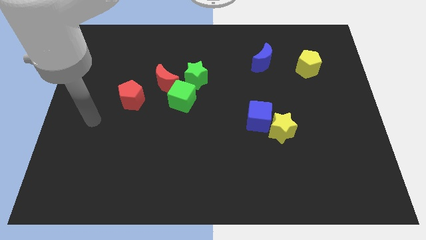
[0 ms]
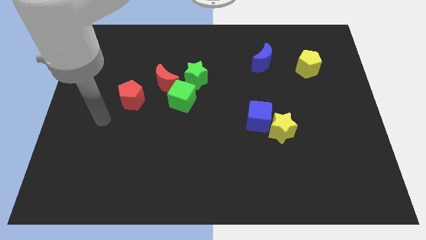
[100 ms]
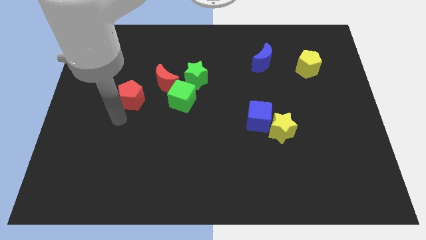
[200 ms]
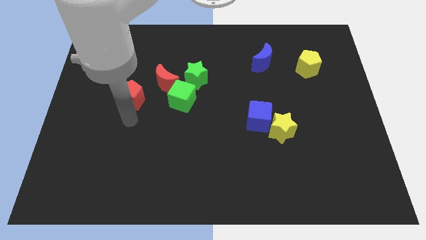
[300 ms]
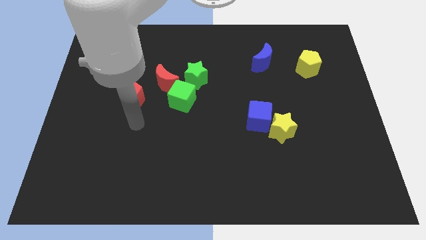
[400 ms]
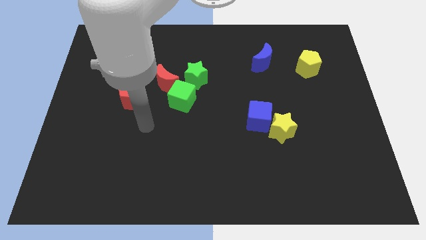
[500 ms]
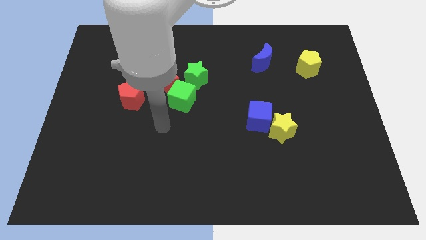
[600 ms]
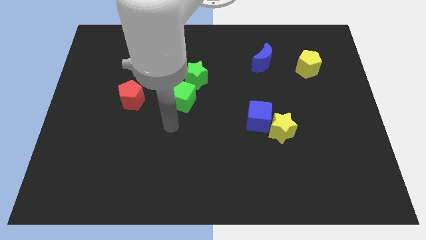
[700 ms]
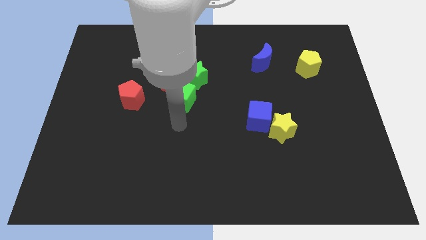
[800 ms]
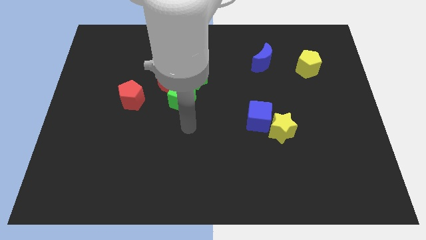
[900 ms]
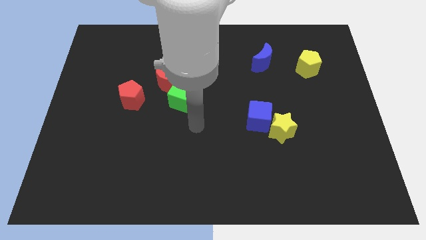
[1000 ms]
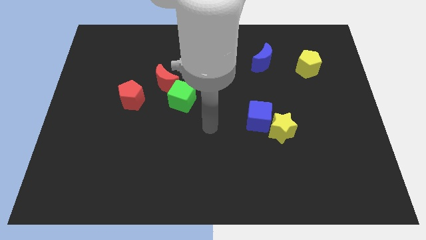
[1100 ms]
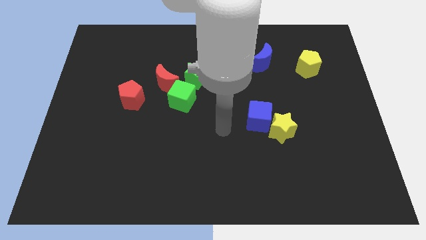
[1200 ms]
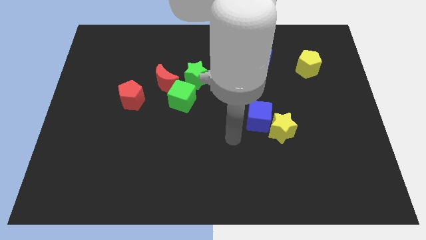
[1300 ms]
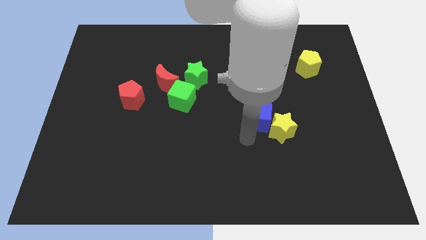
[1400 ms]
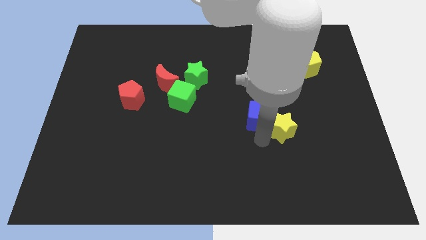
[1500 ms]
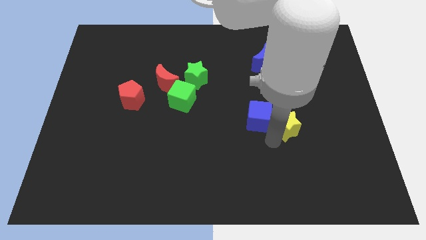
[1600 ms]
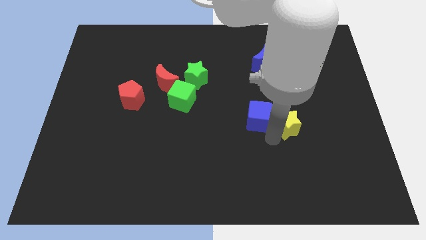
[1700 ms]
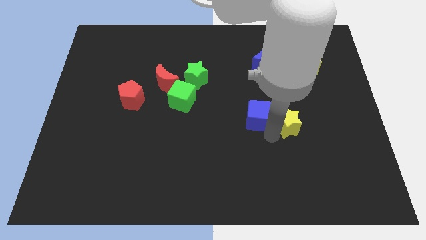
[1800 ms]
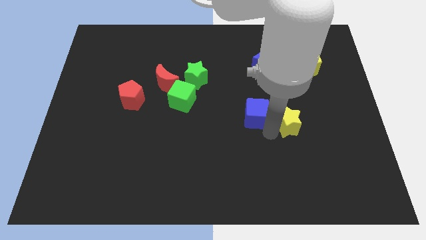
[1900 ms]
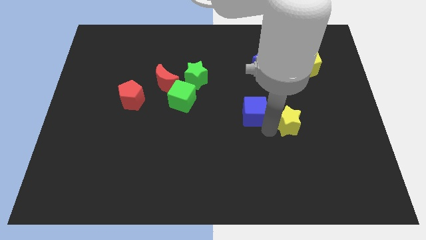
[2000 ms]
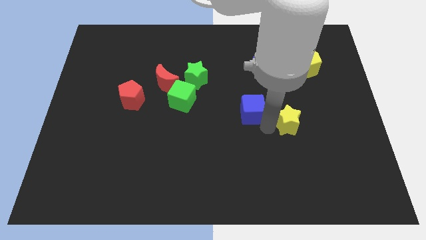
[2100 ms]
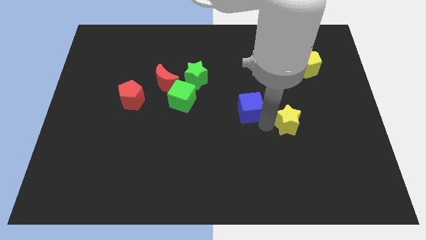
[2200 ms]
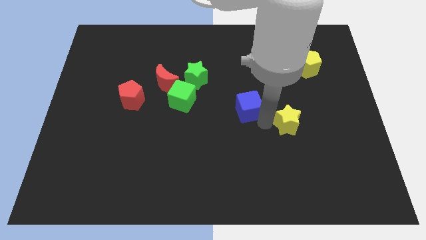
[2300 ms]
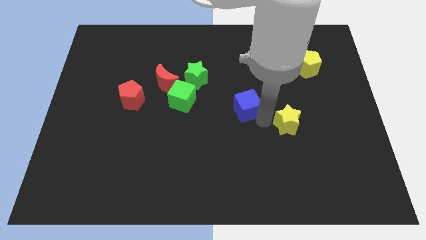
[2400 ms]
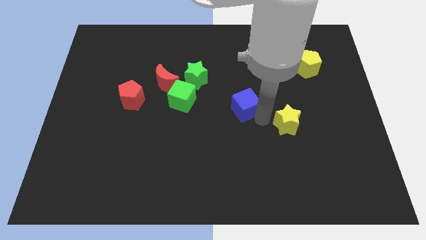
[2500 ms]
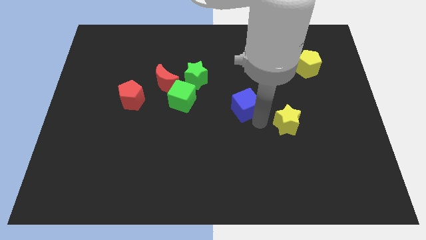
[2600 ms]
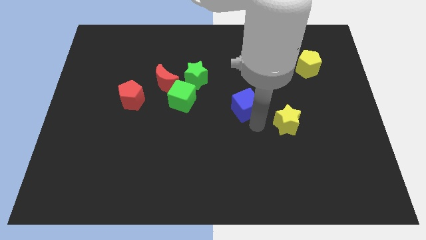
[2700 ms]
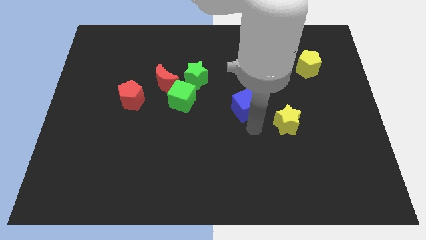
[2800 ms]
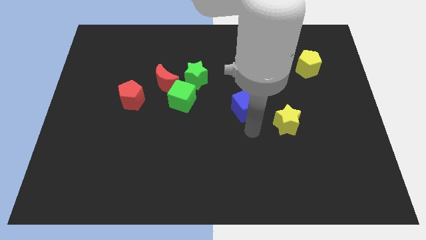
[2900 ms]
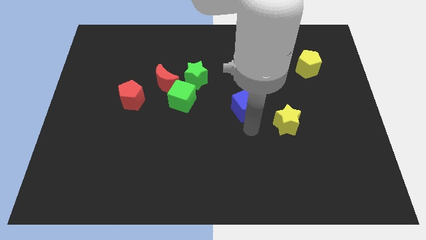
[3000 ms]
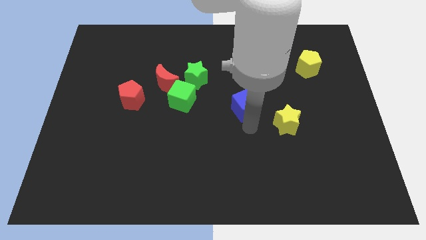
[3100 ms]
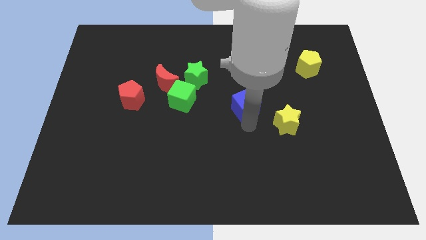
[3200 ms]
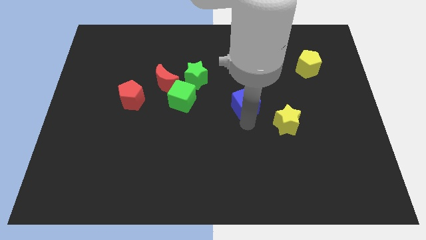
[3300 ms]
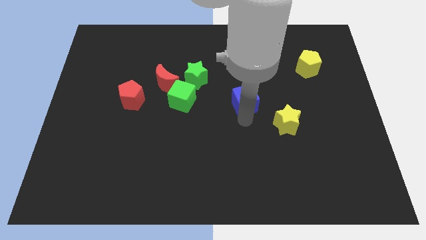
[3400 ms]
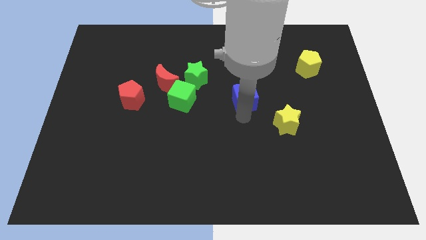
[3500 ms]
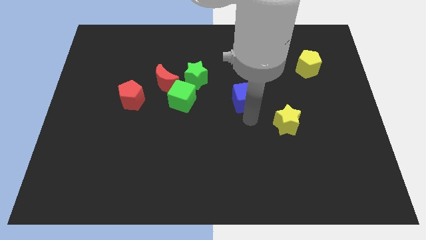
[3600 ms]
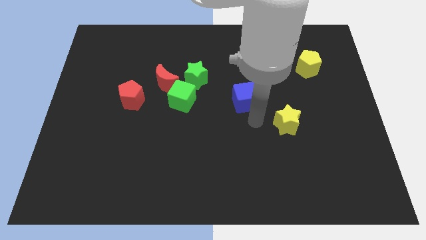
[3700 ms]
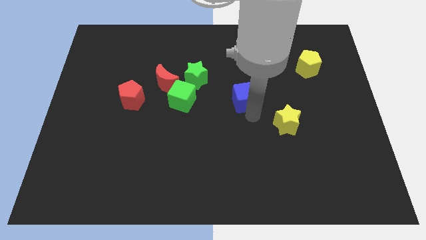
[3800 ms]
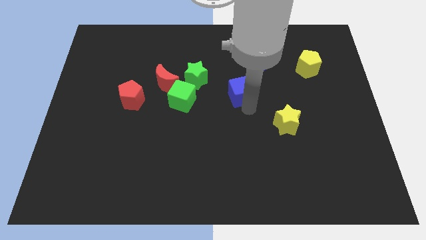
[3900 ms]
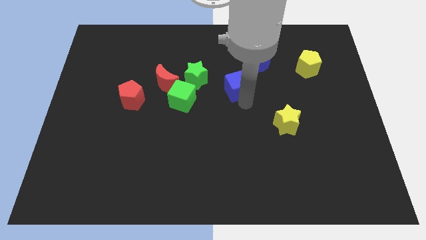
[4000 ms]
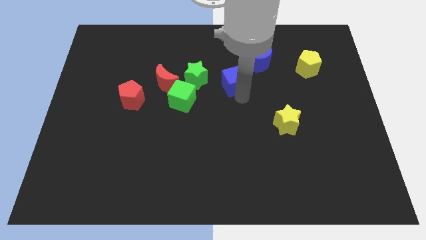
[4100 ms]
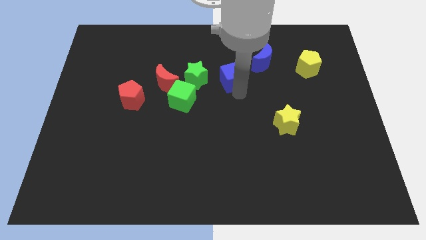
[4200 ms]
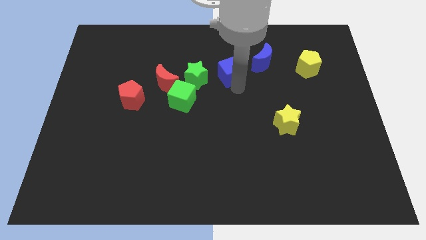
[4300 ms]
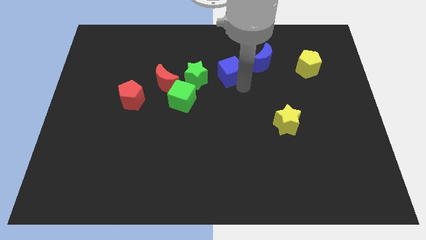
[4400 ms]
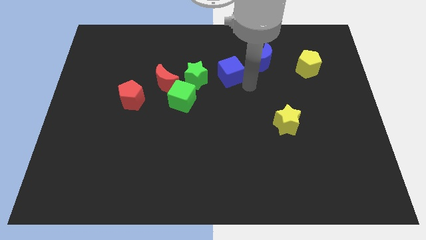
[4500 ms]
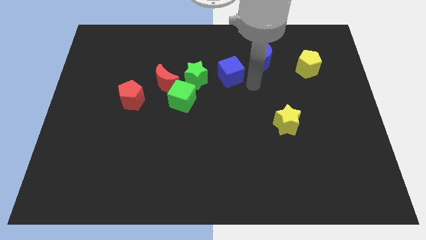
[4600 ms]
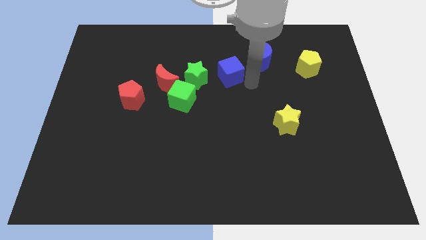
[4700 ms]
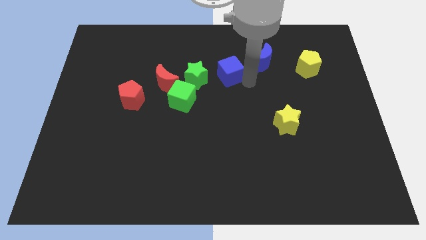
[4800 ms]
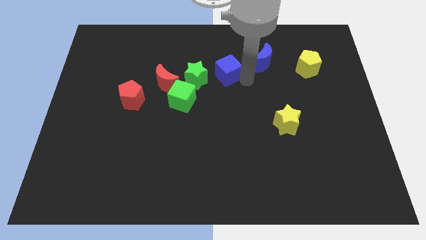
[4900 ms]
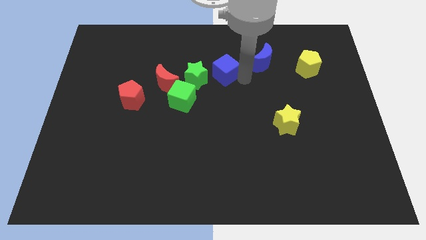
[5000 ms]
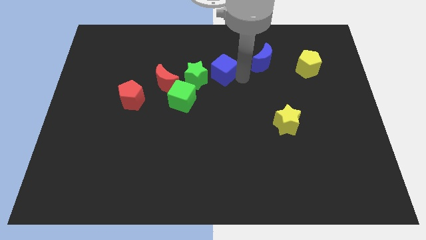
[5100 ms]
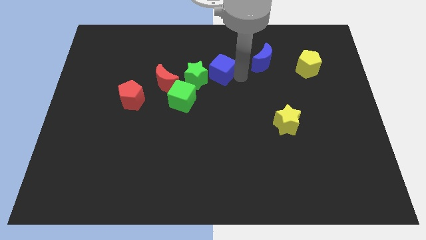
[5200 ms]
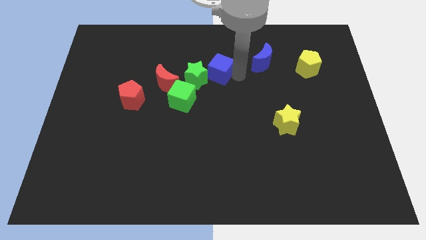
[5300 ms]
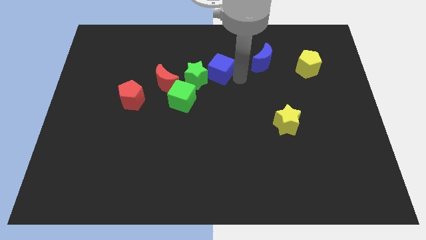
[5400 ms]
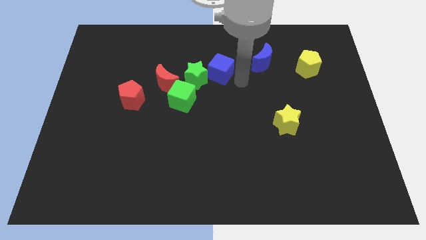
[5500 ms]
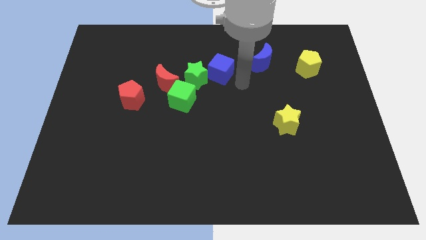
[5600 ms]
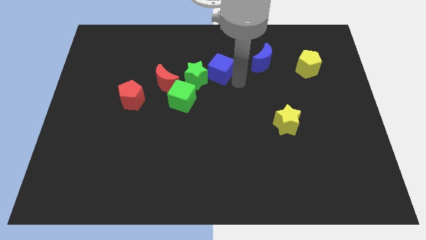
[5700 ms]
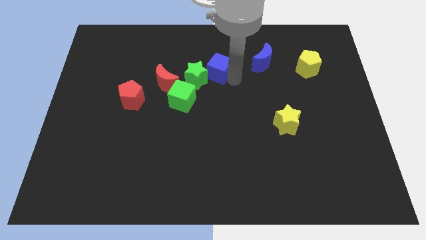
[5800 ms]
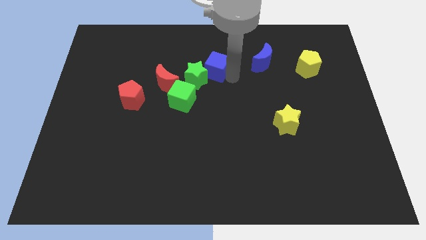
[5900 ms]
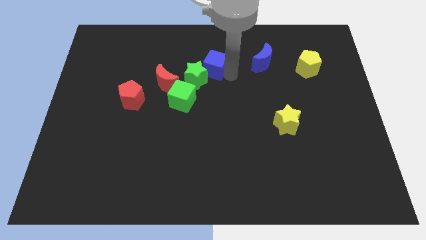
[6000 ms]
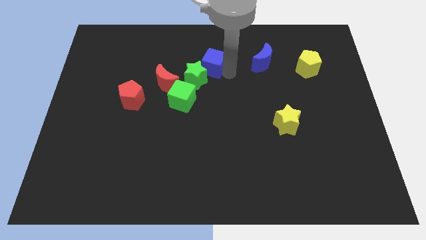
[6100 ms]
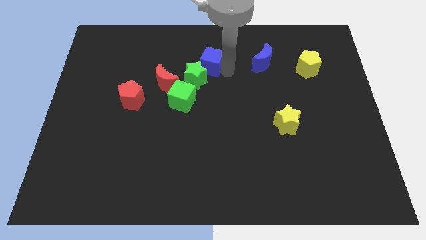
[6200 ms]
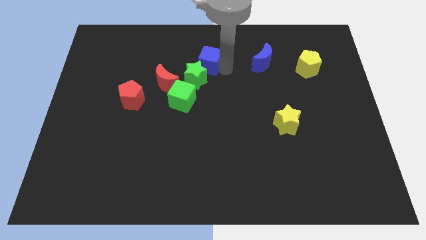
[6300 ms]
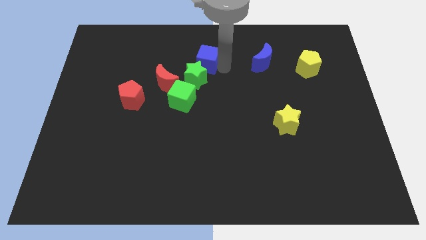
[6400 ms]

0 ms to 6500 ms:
slide the blue cube to the top right of the red moon
